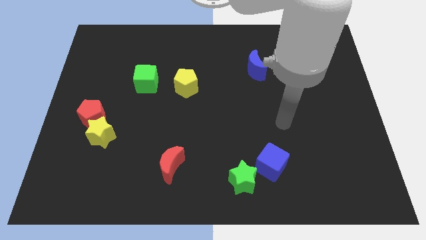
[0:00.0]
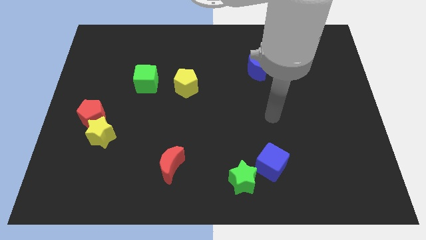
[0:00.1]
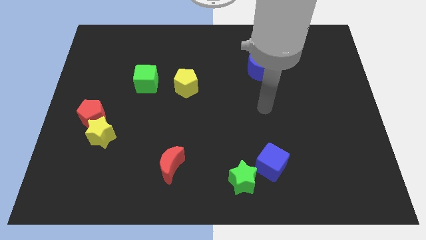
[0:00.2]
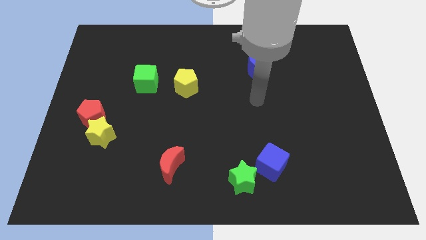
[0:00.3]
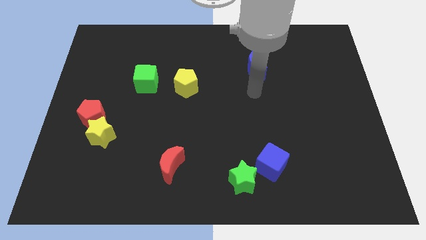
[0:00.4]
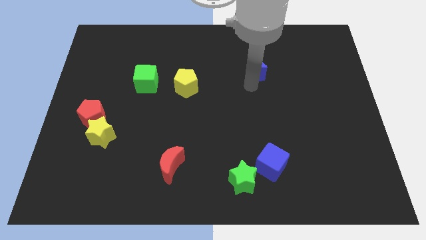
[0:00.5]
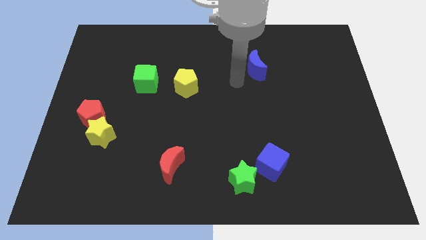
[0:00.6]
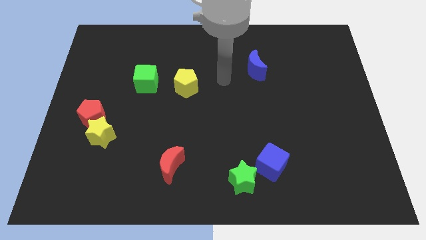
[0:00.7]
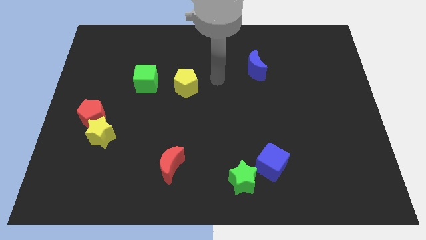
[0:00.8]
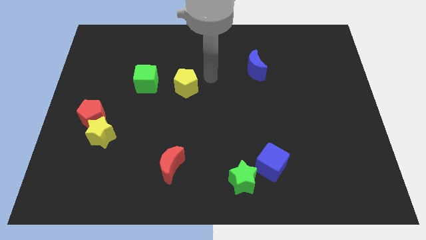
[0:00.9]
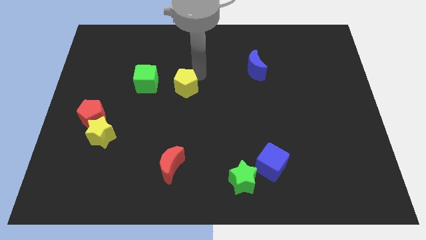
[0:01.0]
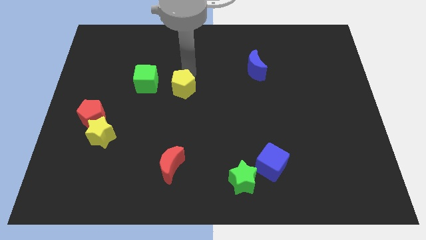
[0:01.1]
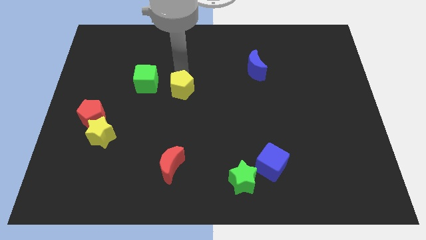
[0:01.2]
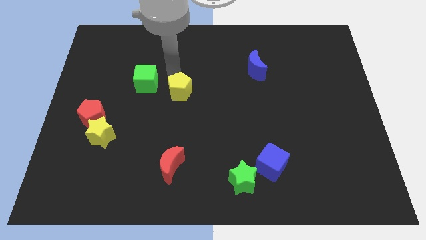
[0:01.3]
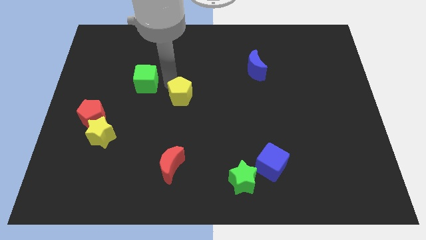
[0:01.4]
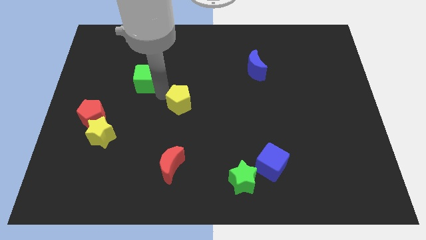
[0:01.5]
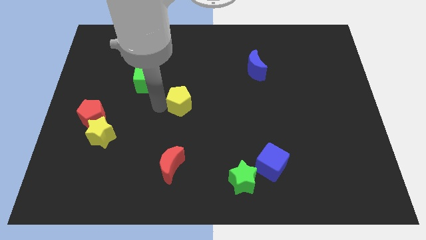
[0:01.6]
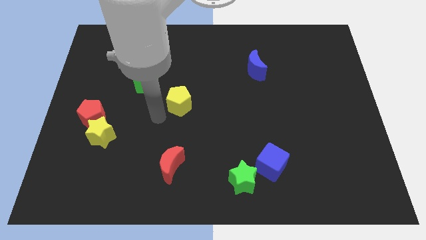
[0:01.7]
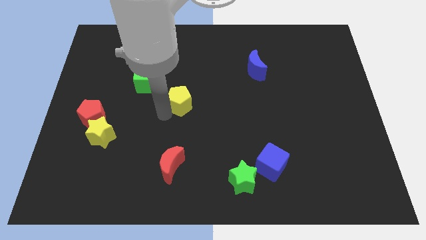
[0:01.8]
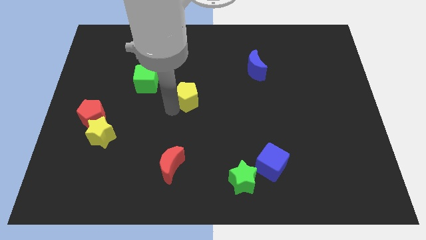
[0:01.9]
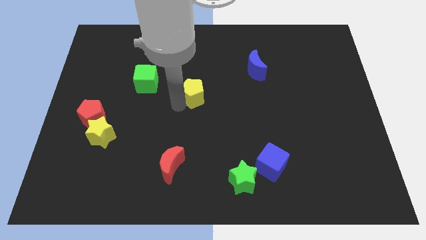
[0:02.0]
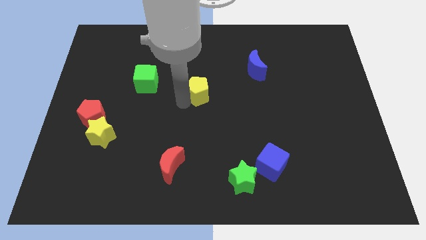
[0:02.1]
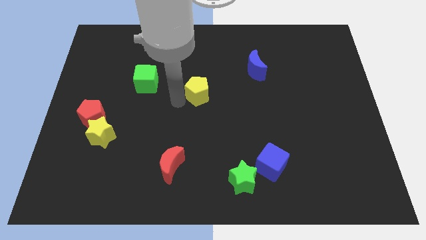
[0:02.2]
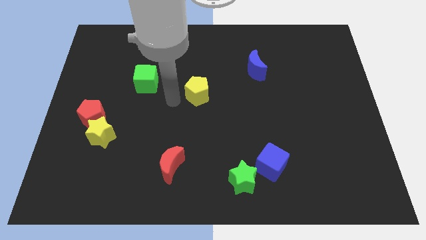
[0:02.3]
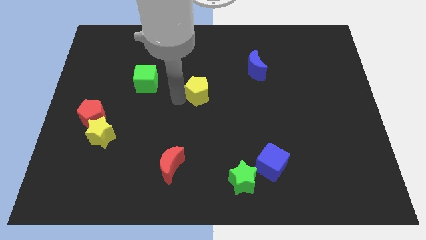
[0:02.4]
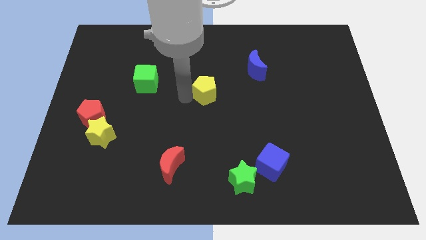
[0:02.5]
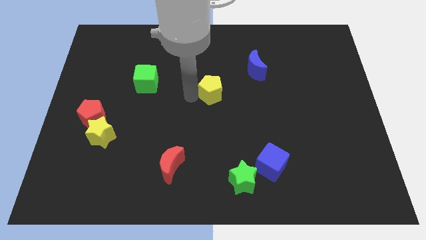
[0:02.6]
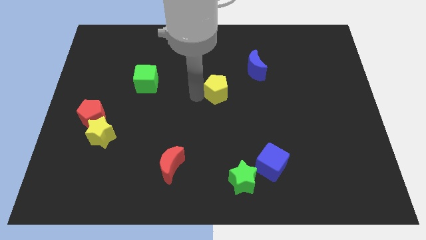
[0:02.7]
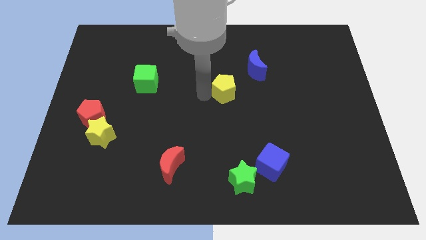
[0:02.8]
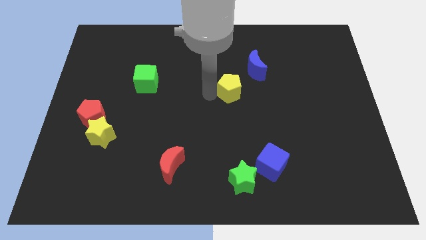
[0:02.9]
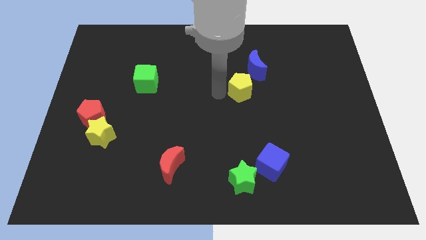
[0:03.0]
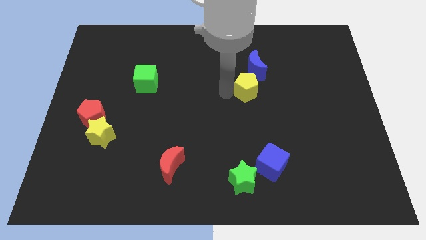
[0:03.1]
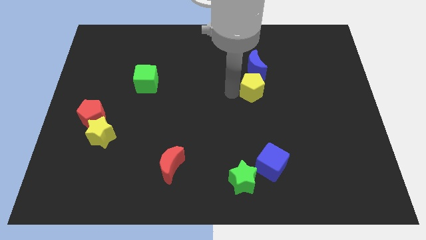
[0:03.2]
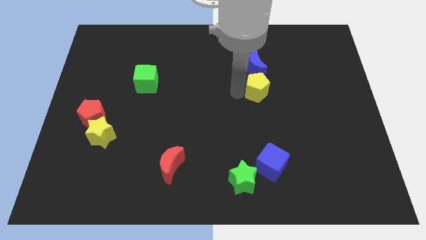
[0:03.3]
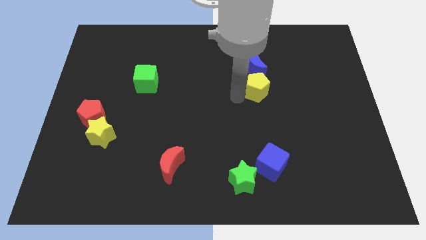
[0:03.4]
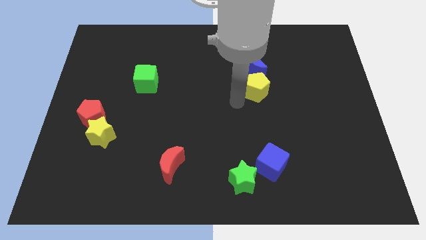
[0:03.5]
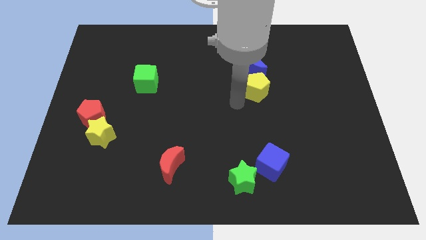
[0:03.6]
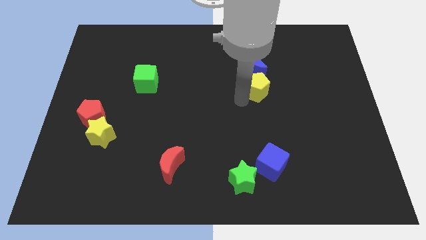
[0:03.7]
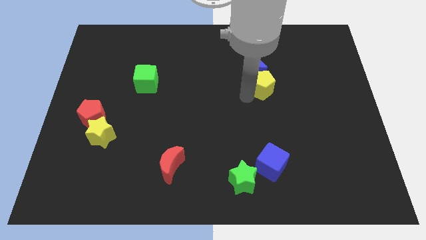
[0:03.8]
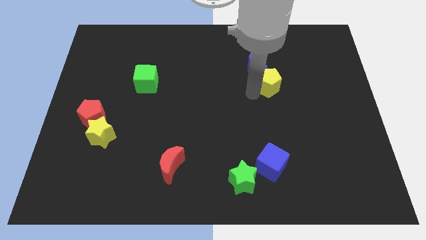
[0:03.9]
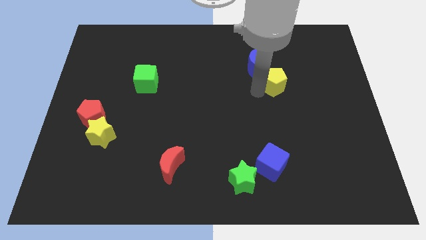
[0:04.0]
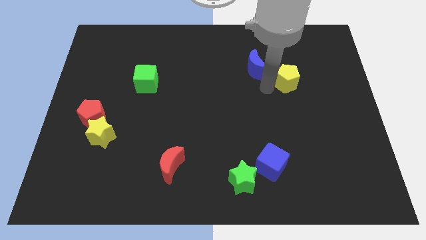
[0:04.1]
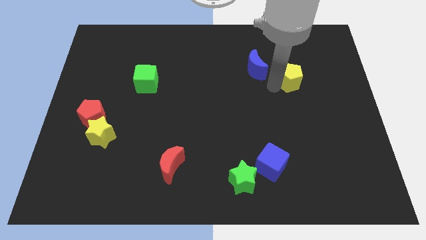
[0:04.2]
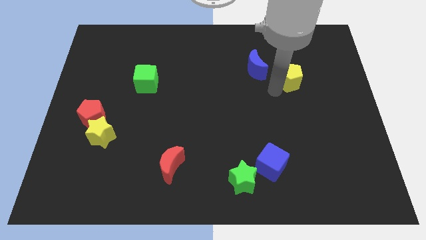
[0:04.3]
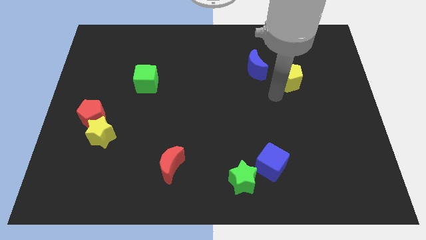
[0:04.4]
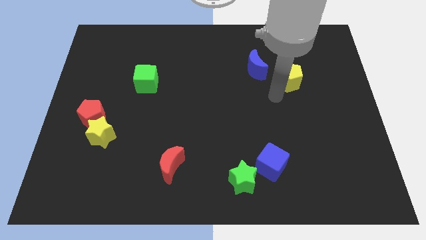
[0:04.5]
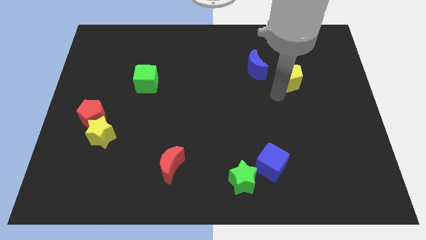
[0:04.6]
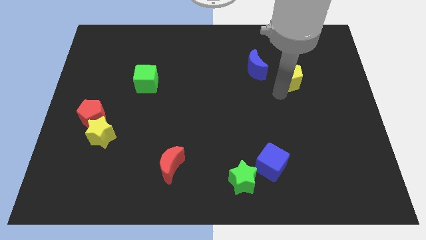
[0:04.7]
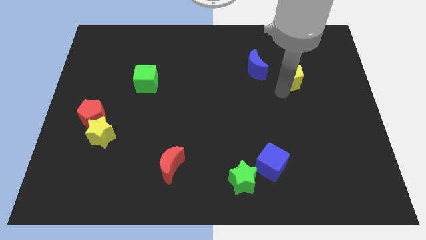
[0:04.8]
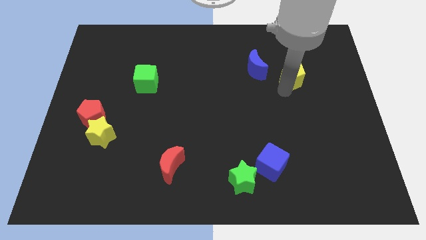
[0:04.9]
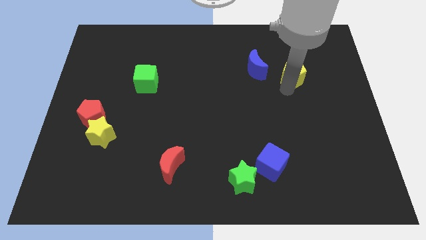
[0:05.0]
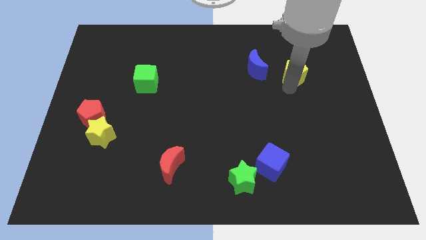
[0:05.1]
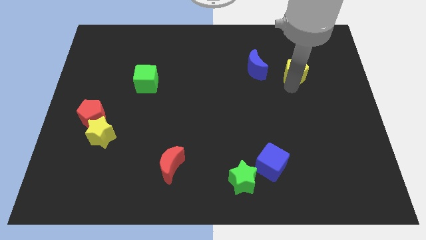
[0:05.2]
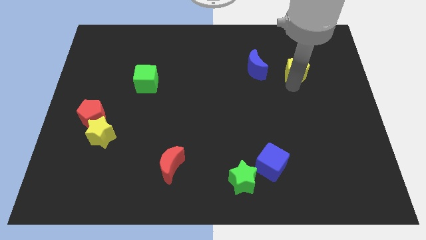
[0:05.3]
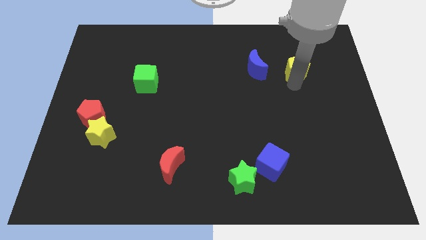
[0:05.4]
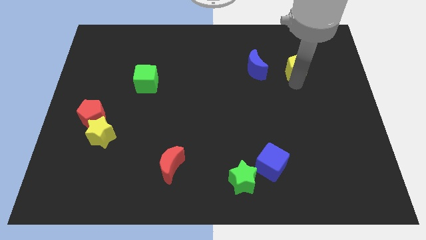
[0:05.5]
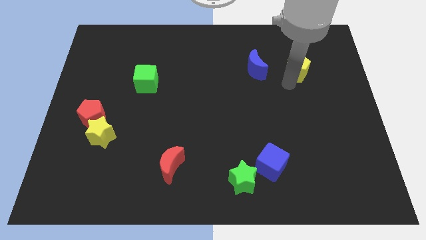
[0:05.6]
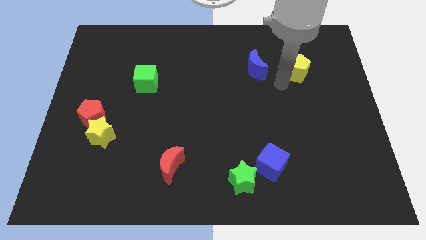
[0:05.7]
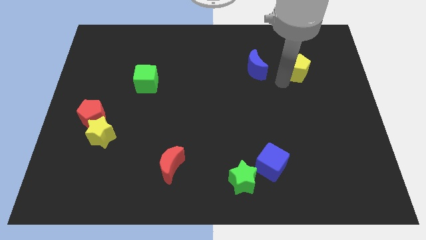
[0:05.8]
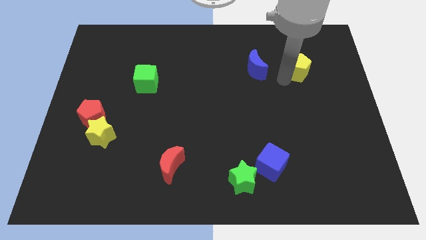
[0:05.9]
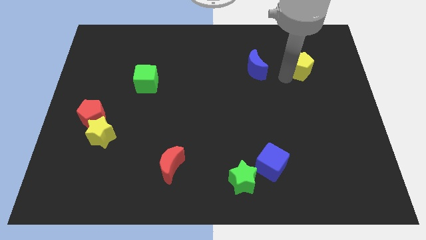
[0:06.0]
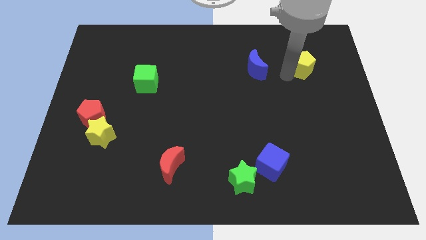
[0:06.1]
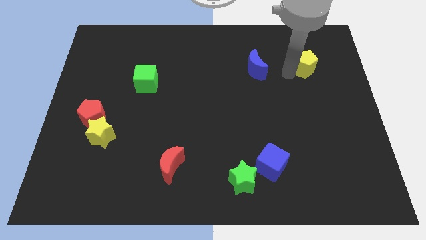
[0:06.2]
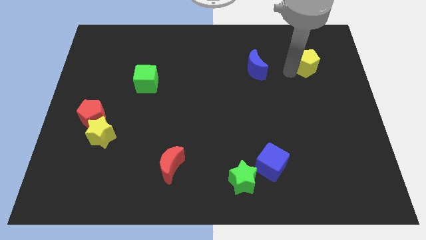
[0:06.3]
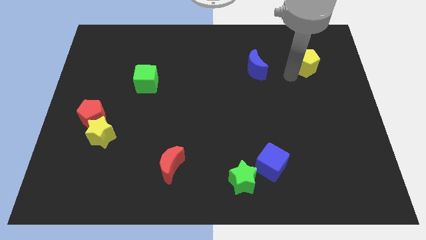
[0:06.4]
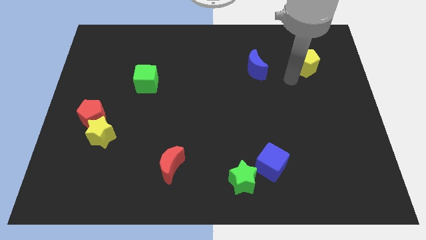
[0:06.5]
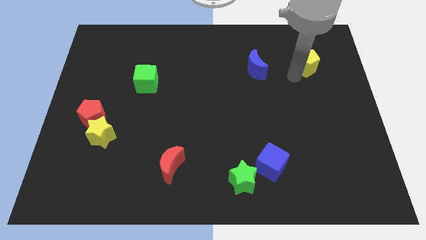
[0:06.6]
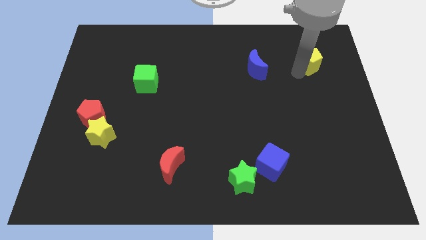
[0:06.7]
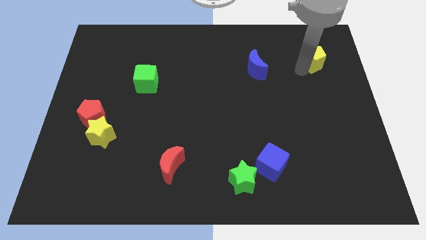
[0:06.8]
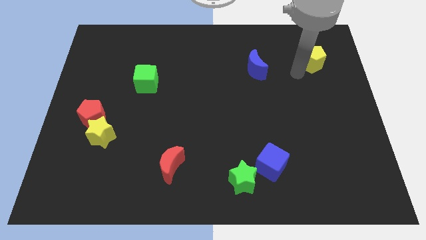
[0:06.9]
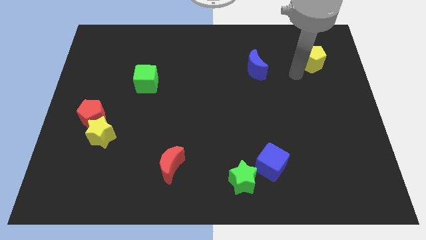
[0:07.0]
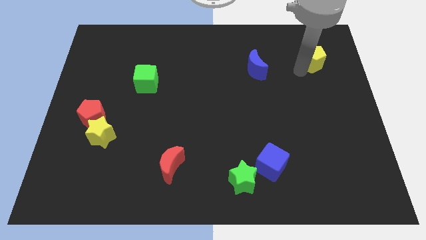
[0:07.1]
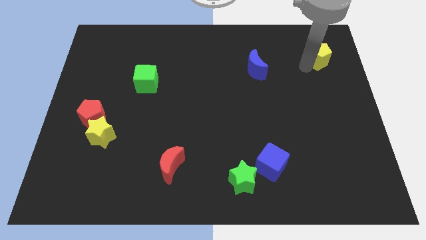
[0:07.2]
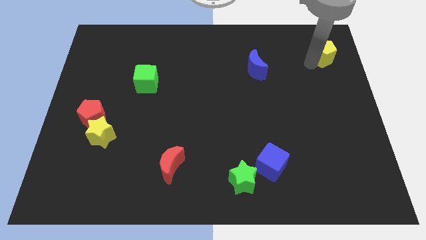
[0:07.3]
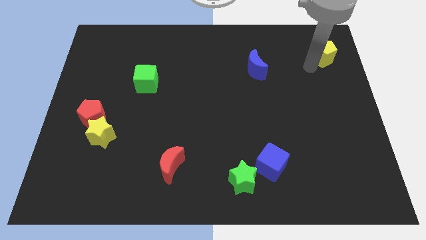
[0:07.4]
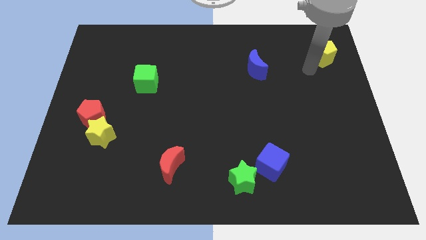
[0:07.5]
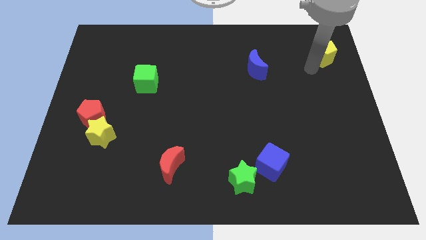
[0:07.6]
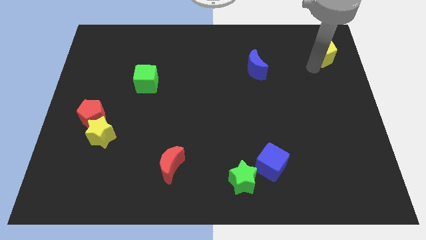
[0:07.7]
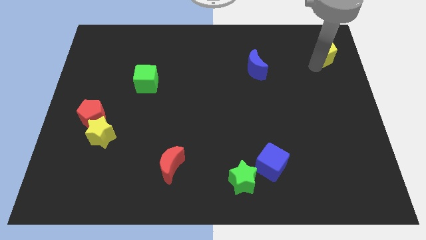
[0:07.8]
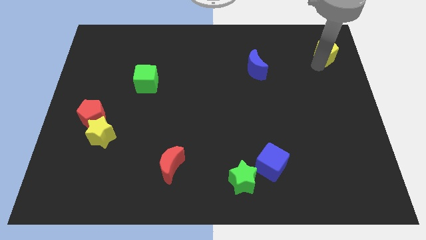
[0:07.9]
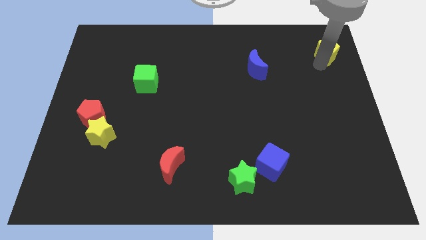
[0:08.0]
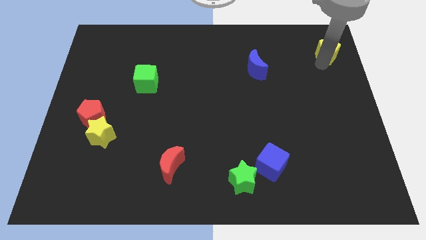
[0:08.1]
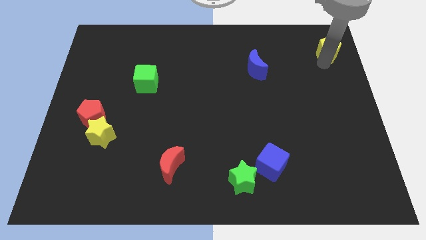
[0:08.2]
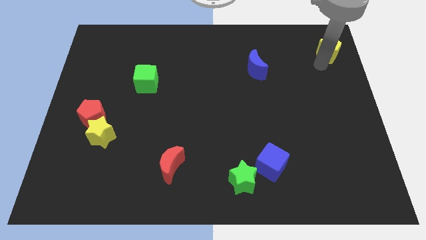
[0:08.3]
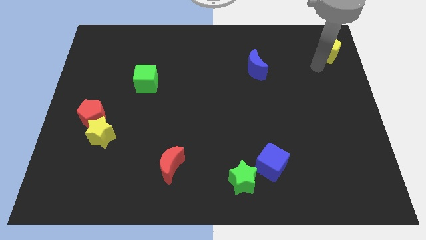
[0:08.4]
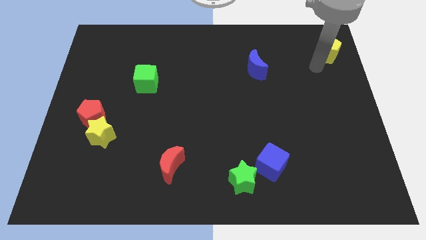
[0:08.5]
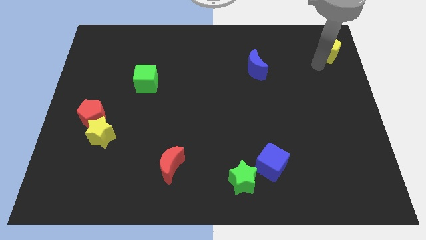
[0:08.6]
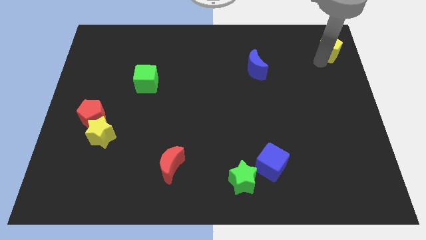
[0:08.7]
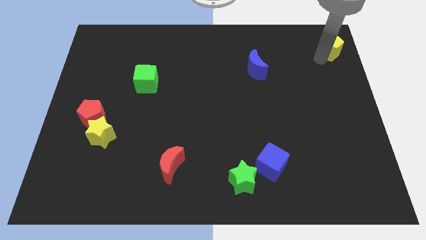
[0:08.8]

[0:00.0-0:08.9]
move the yellow pentagon to the top right
